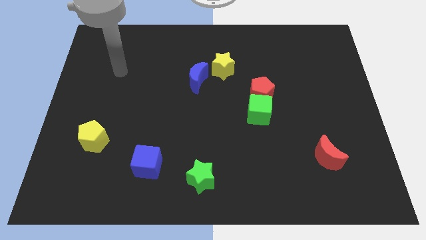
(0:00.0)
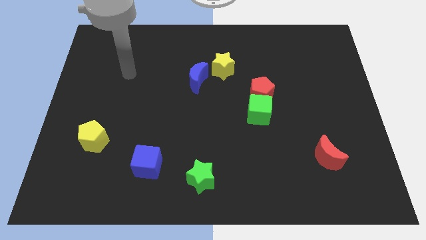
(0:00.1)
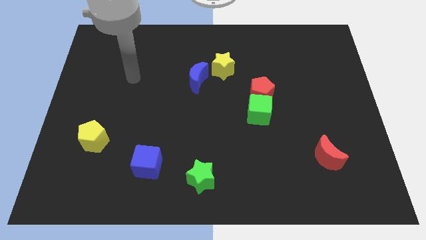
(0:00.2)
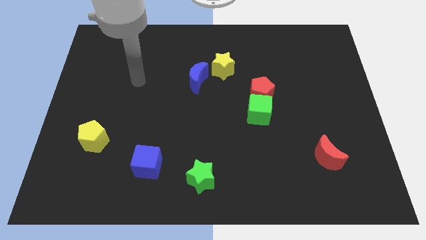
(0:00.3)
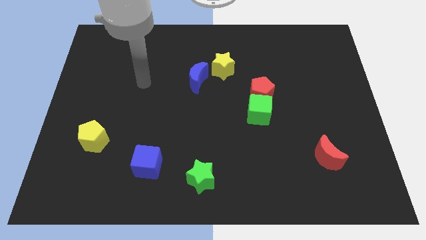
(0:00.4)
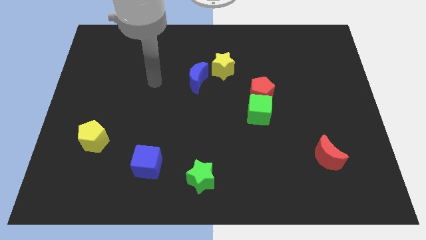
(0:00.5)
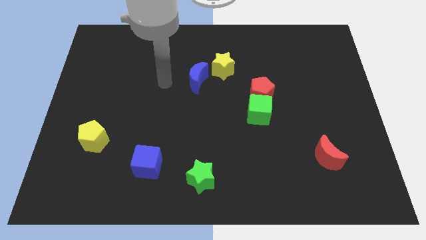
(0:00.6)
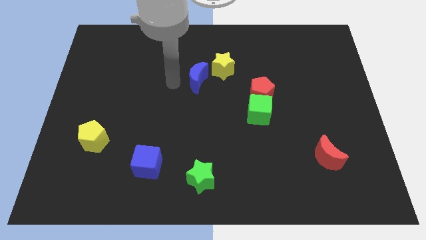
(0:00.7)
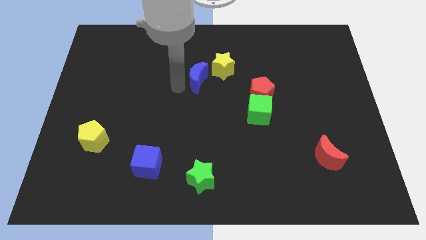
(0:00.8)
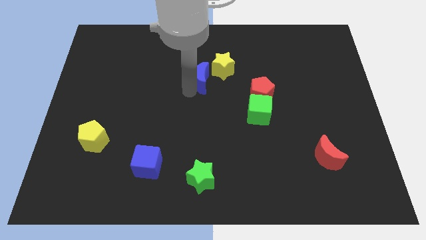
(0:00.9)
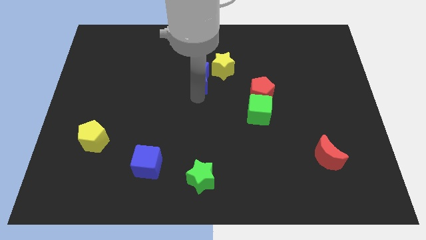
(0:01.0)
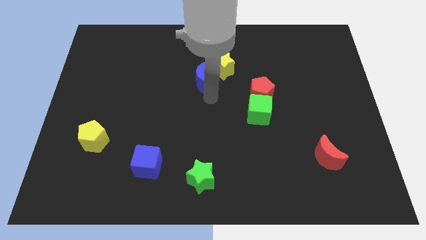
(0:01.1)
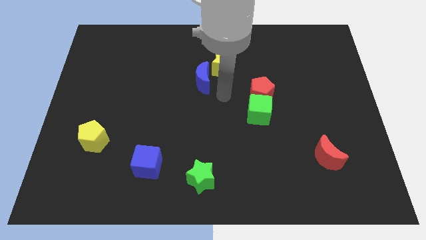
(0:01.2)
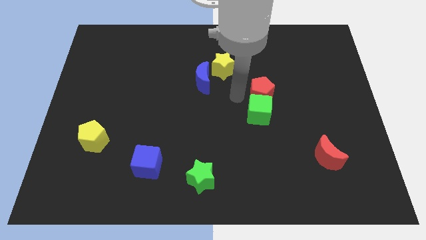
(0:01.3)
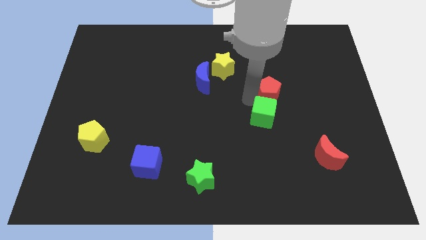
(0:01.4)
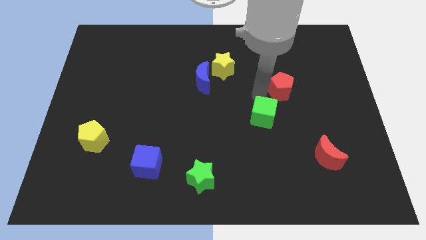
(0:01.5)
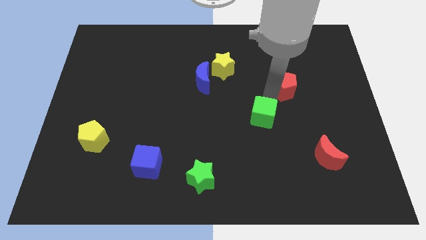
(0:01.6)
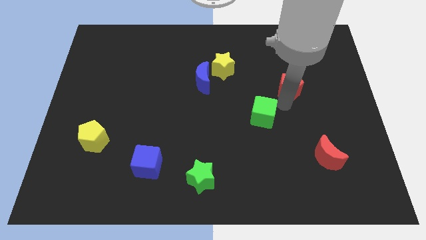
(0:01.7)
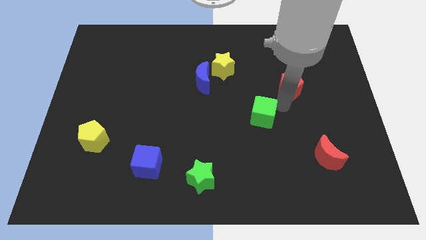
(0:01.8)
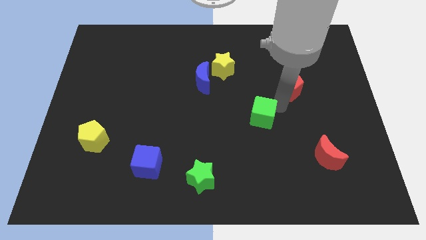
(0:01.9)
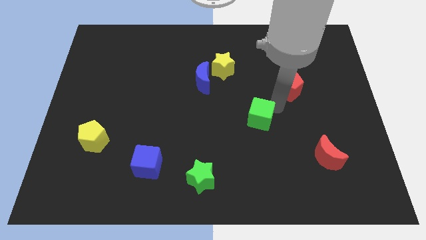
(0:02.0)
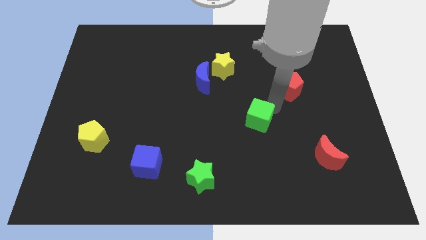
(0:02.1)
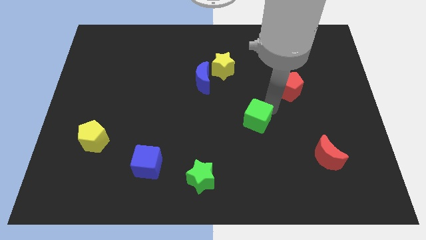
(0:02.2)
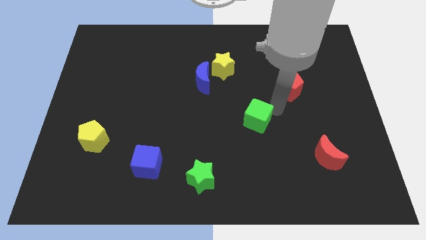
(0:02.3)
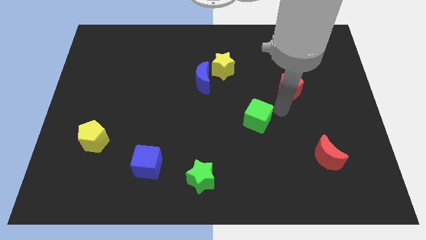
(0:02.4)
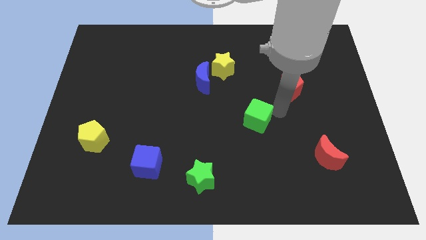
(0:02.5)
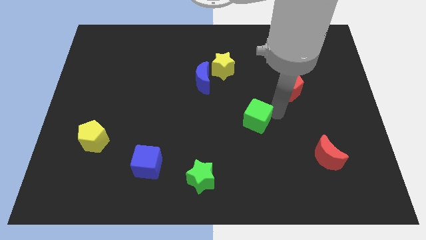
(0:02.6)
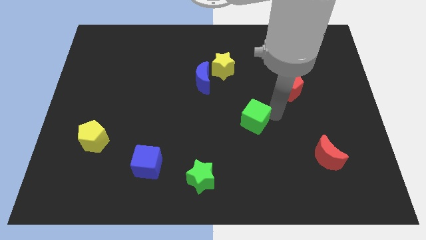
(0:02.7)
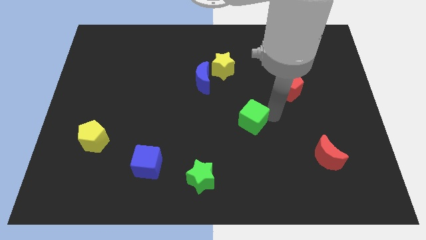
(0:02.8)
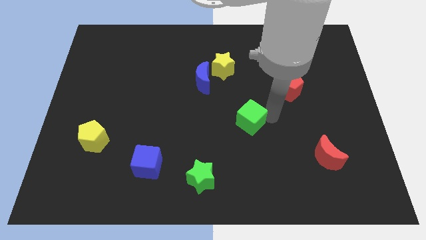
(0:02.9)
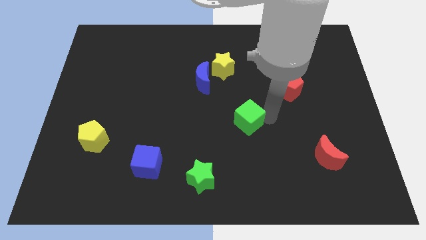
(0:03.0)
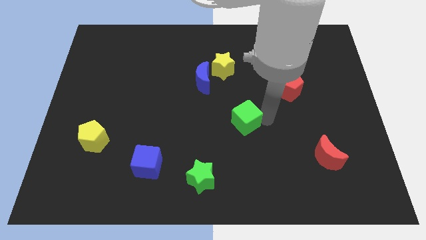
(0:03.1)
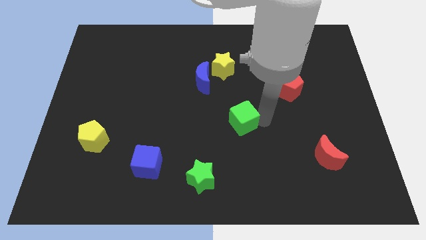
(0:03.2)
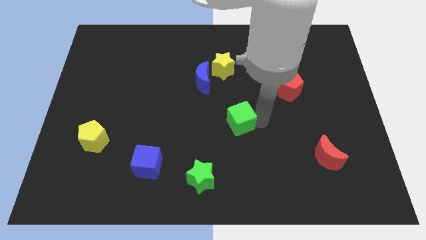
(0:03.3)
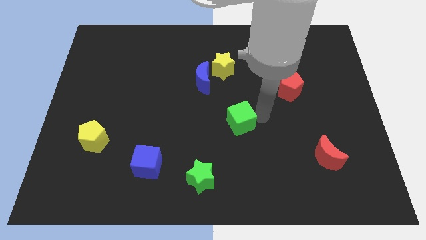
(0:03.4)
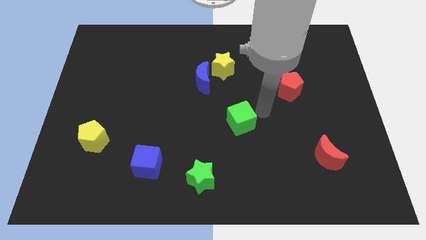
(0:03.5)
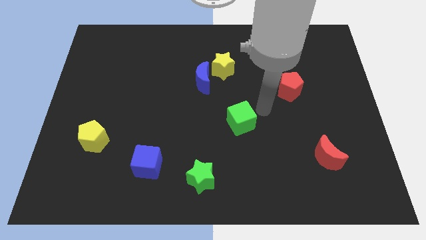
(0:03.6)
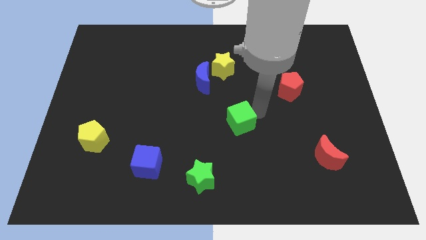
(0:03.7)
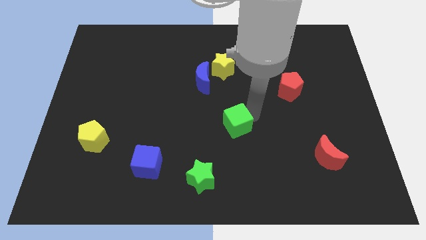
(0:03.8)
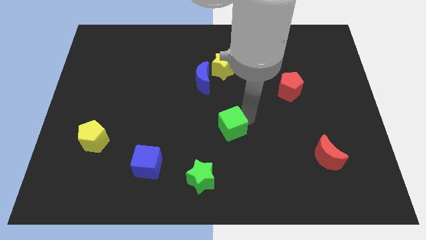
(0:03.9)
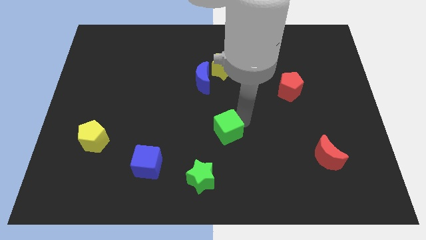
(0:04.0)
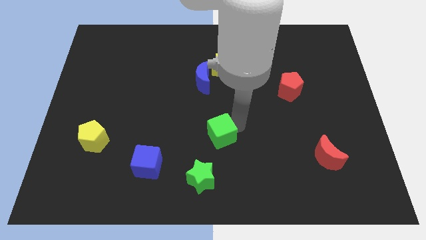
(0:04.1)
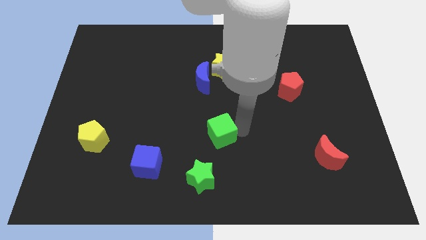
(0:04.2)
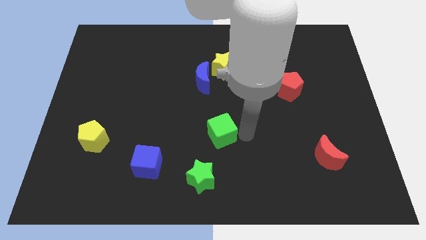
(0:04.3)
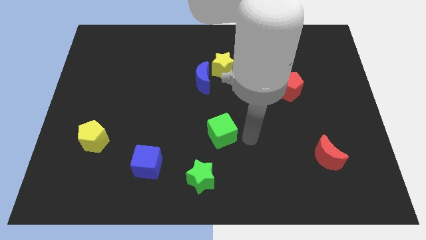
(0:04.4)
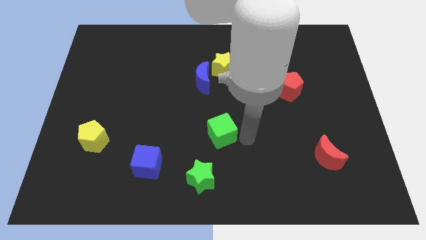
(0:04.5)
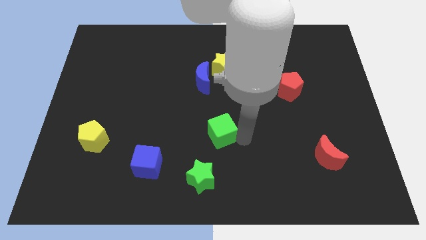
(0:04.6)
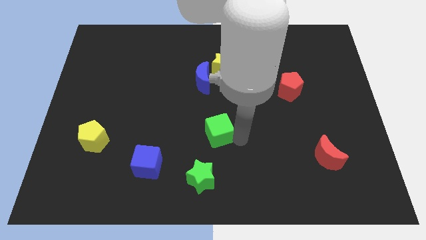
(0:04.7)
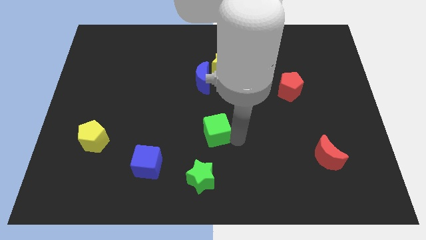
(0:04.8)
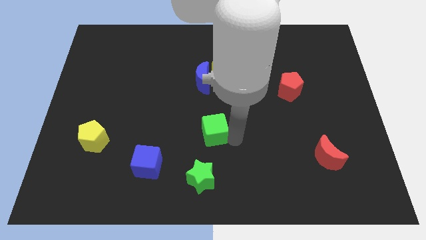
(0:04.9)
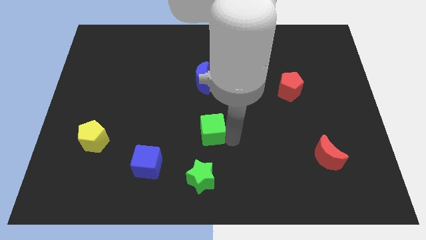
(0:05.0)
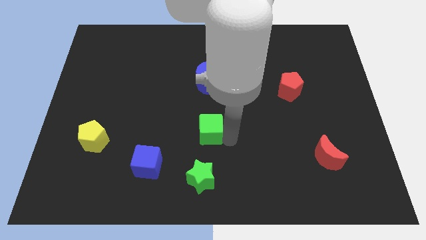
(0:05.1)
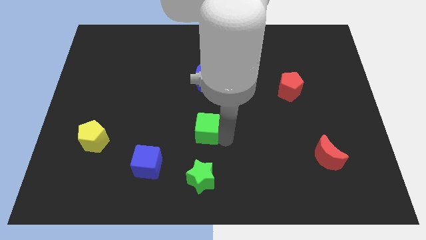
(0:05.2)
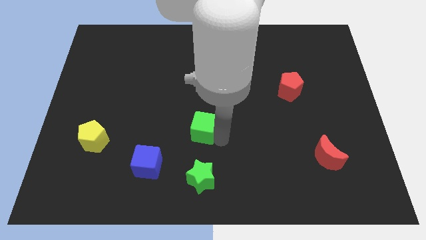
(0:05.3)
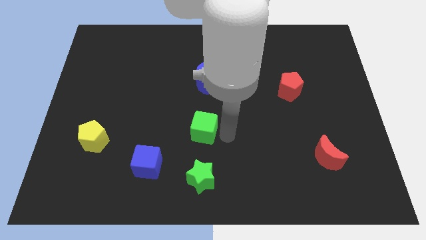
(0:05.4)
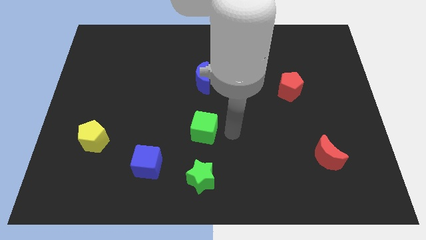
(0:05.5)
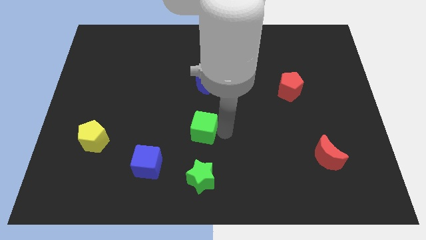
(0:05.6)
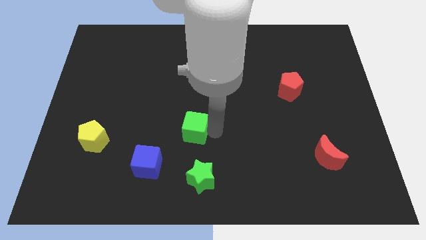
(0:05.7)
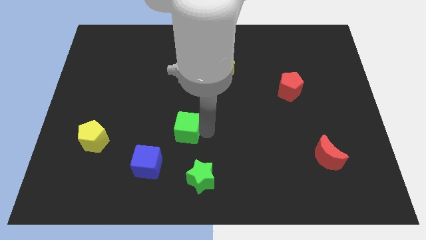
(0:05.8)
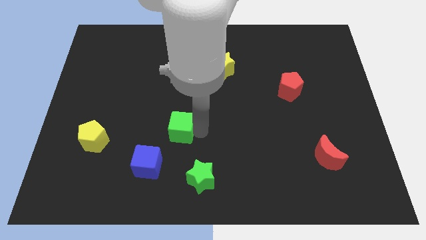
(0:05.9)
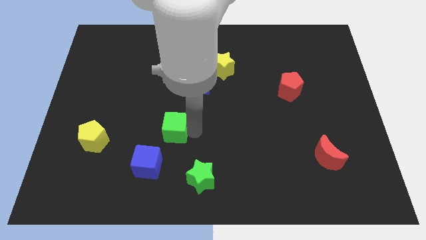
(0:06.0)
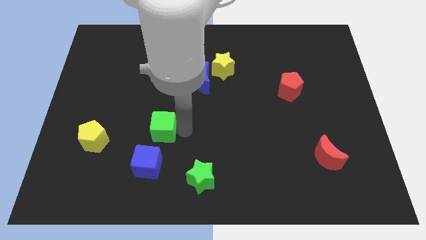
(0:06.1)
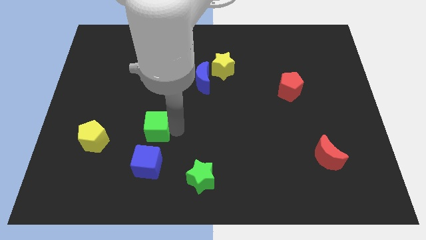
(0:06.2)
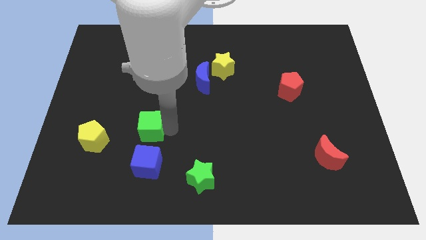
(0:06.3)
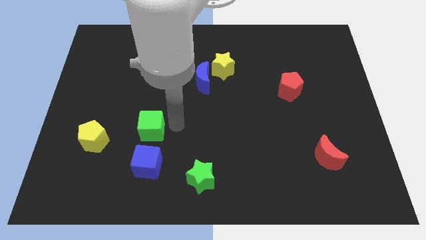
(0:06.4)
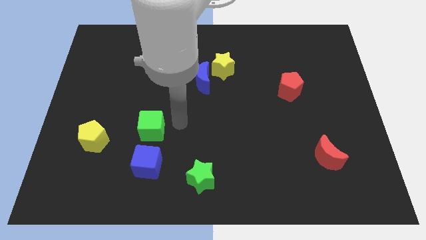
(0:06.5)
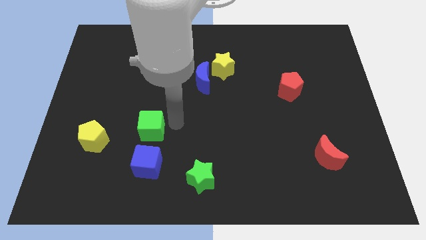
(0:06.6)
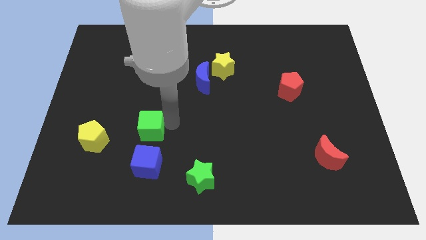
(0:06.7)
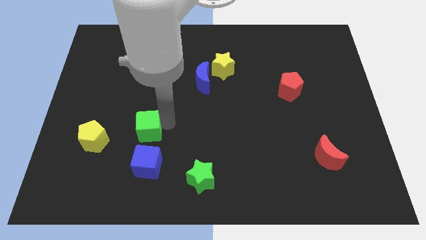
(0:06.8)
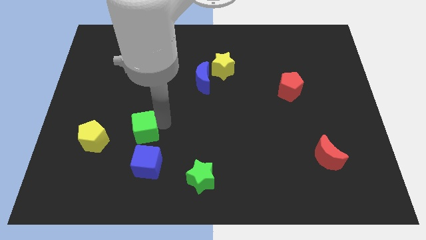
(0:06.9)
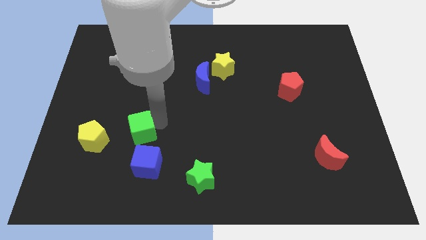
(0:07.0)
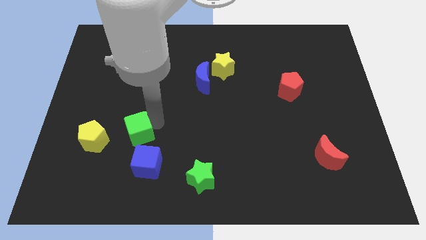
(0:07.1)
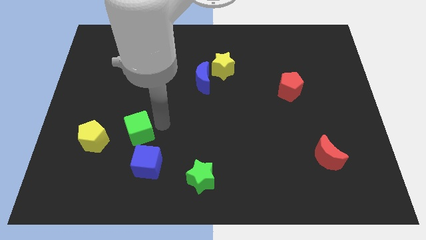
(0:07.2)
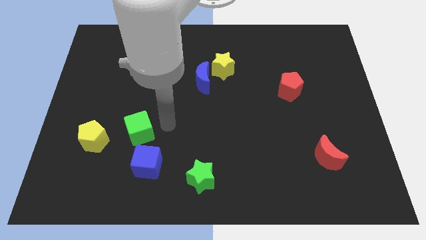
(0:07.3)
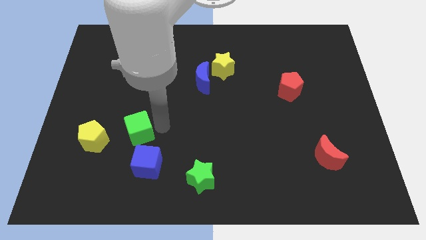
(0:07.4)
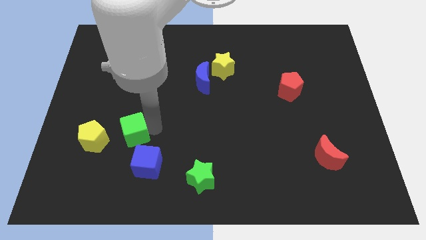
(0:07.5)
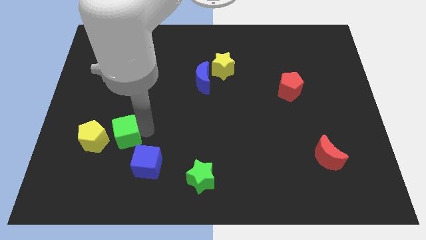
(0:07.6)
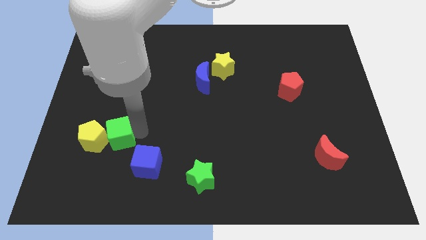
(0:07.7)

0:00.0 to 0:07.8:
move the green cube close to the yellow pentagon
